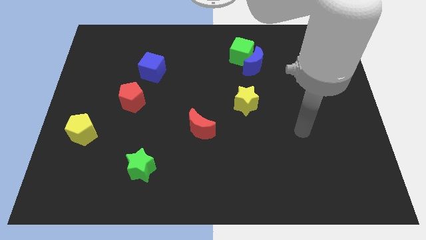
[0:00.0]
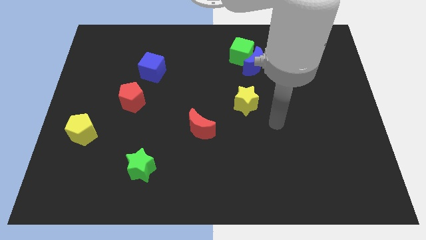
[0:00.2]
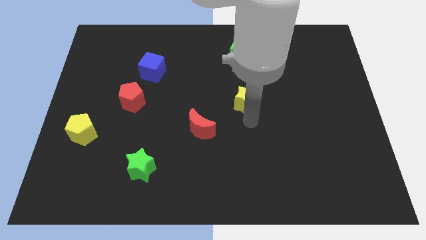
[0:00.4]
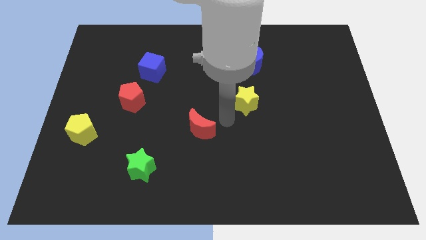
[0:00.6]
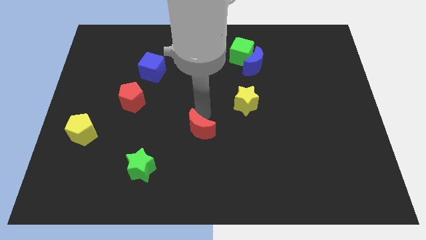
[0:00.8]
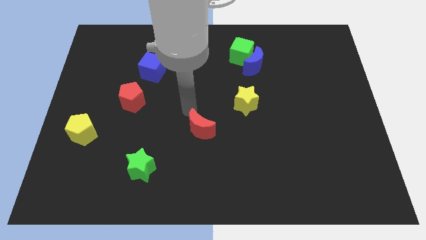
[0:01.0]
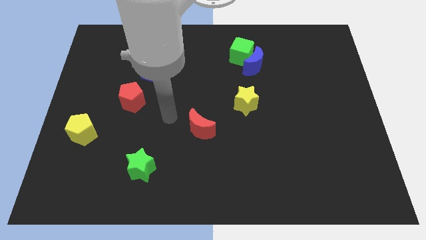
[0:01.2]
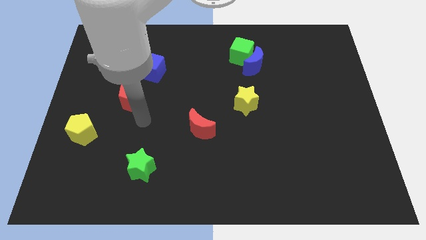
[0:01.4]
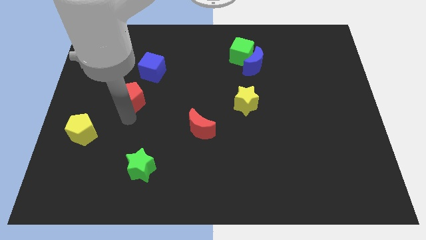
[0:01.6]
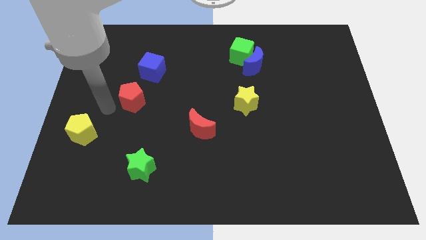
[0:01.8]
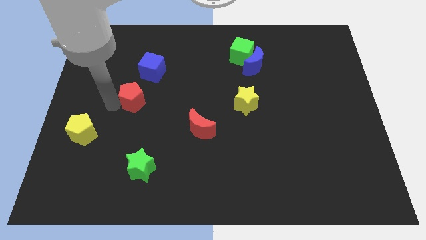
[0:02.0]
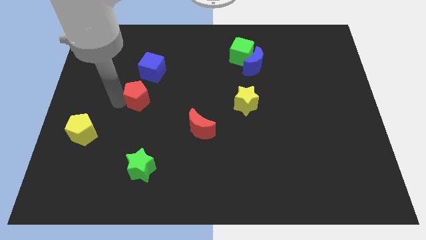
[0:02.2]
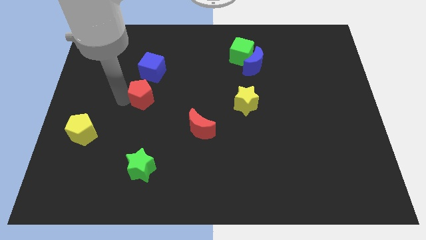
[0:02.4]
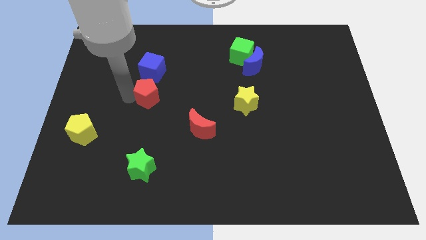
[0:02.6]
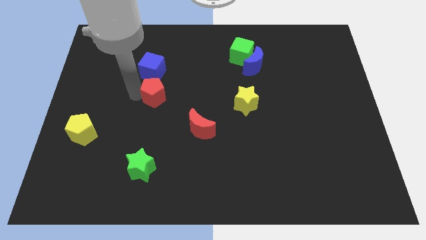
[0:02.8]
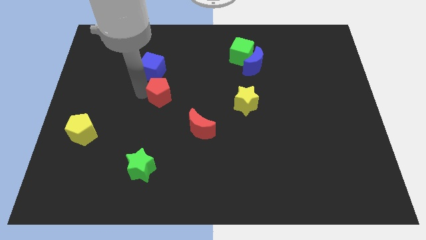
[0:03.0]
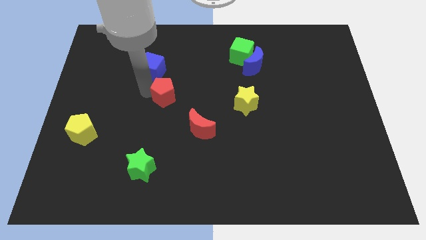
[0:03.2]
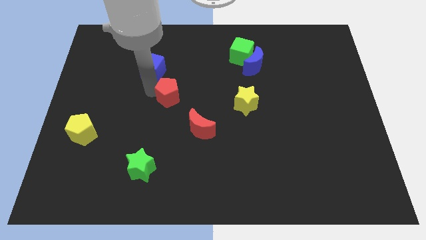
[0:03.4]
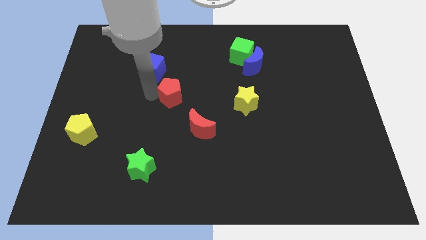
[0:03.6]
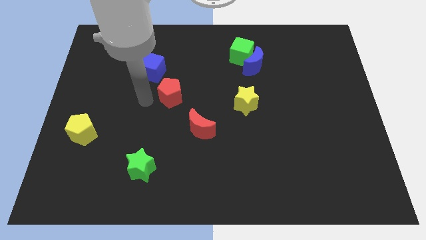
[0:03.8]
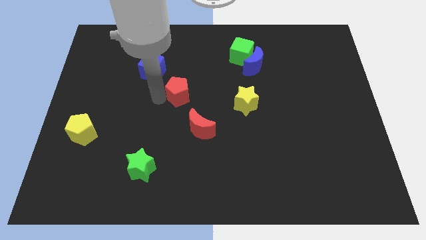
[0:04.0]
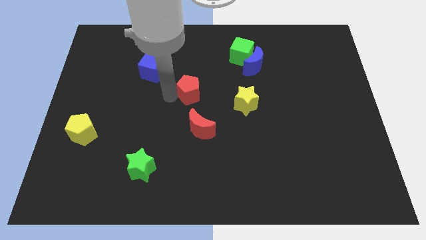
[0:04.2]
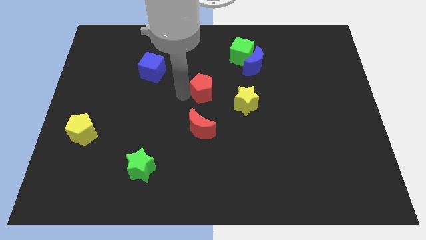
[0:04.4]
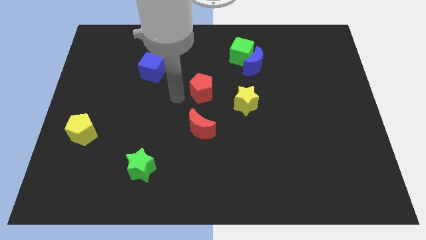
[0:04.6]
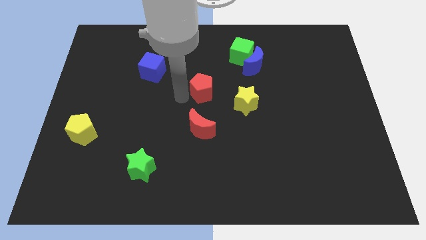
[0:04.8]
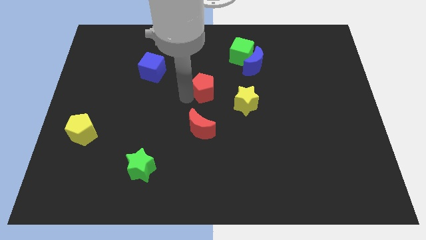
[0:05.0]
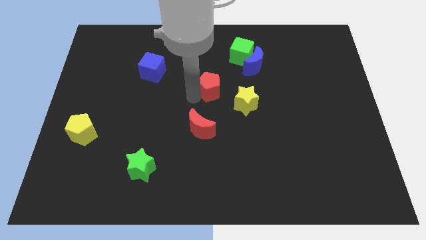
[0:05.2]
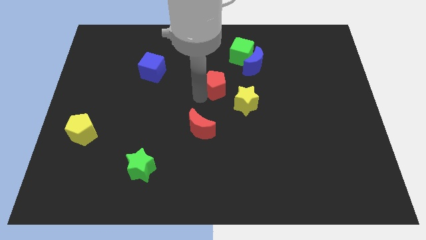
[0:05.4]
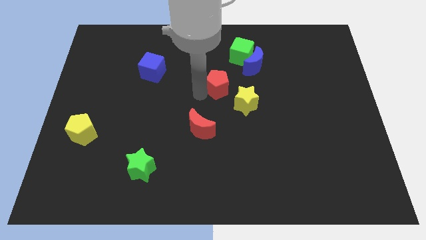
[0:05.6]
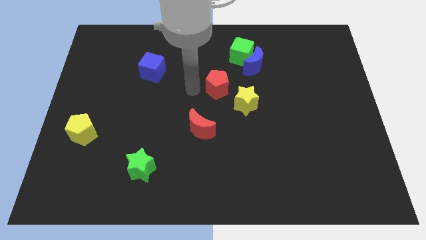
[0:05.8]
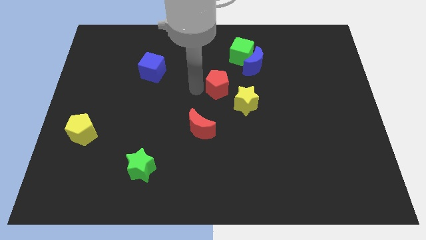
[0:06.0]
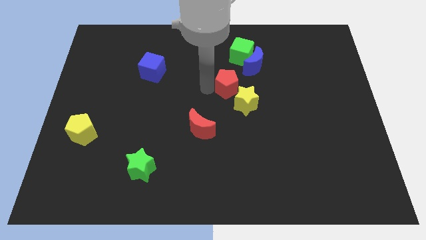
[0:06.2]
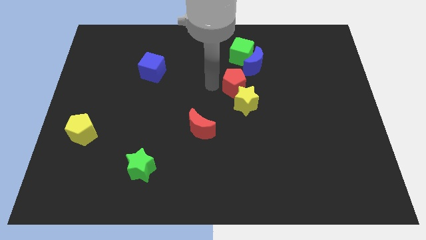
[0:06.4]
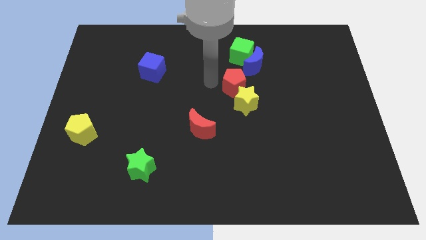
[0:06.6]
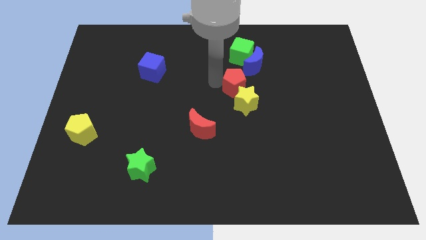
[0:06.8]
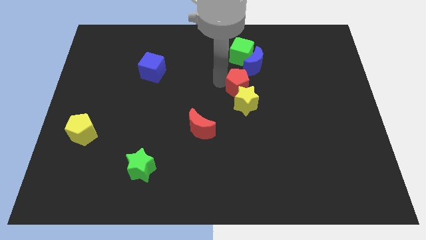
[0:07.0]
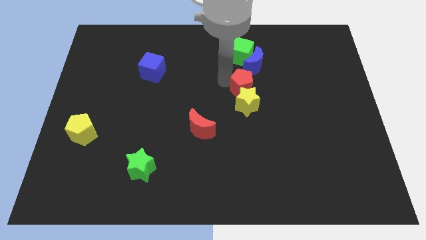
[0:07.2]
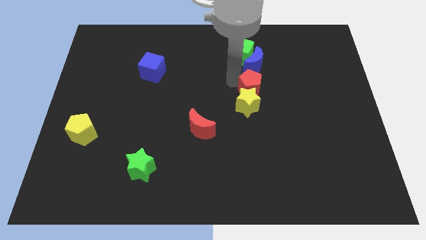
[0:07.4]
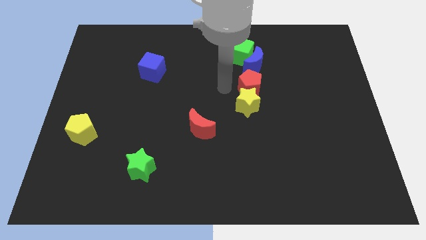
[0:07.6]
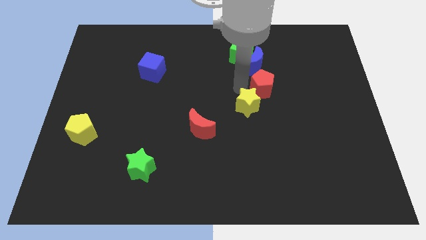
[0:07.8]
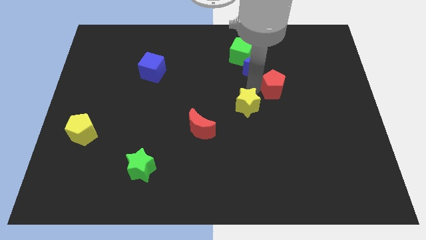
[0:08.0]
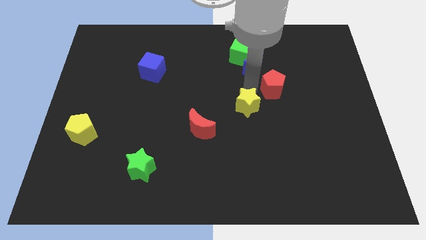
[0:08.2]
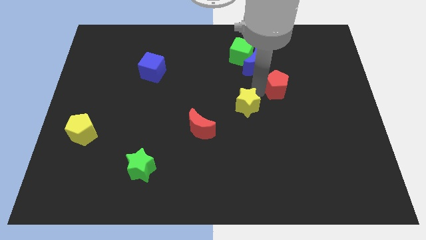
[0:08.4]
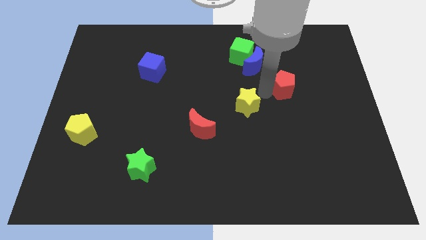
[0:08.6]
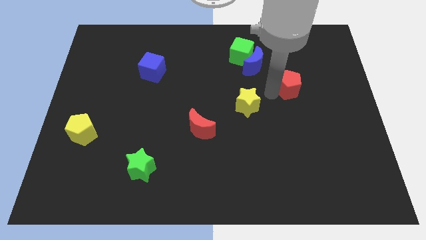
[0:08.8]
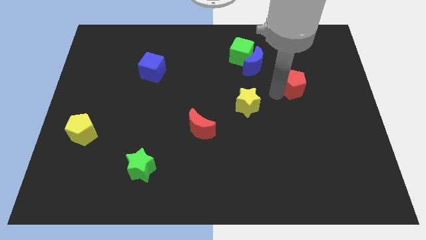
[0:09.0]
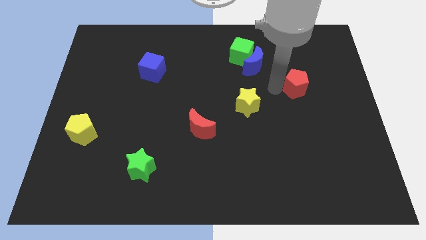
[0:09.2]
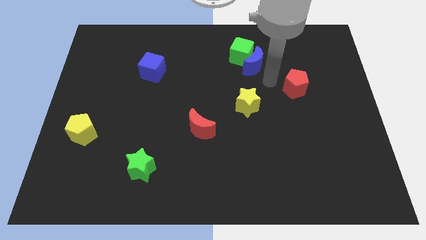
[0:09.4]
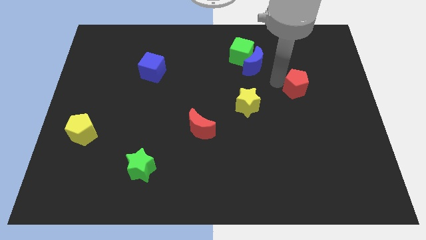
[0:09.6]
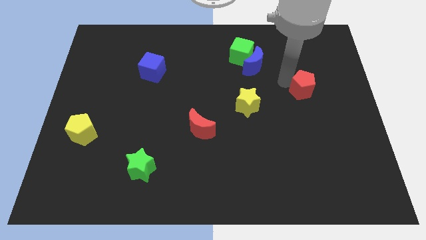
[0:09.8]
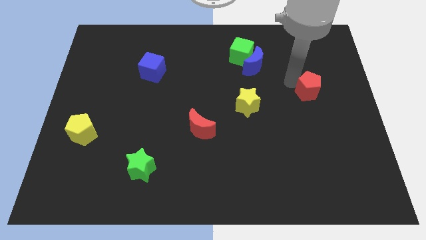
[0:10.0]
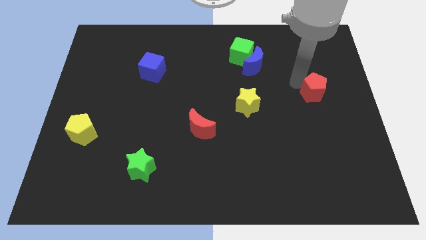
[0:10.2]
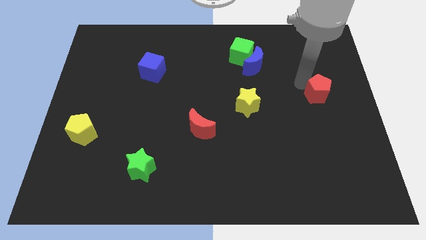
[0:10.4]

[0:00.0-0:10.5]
move the red pentagon to the center right

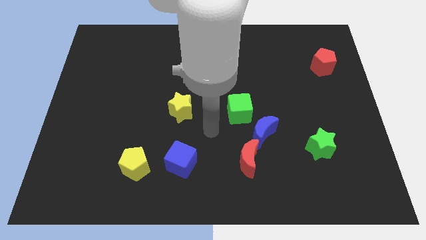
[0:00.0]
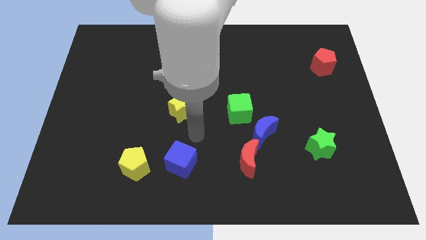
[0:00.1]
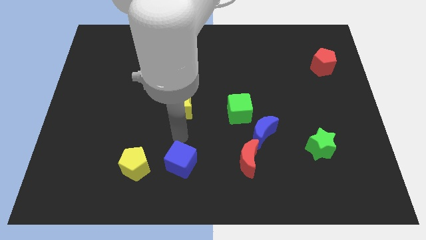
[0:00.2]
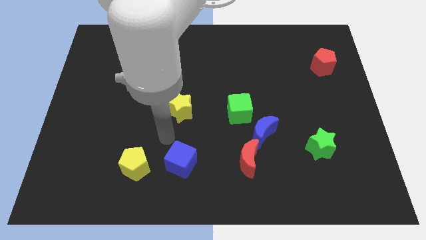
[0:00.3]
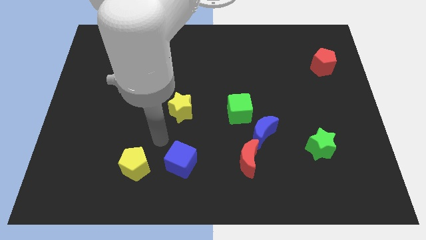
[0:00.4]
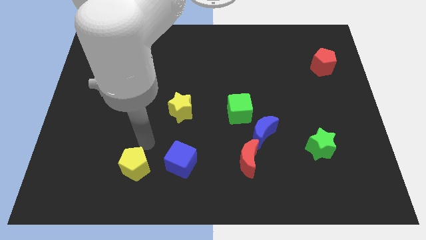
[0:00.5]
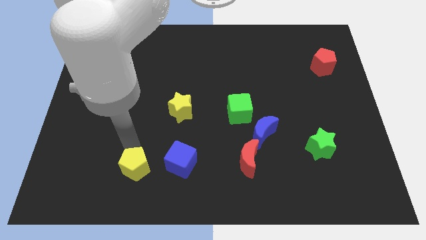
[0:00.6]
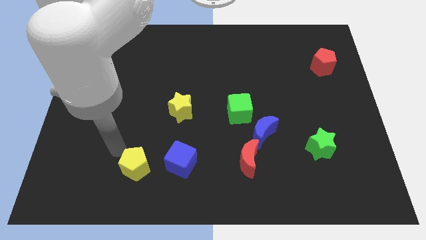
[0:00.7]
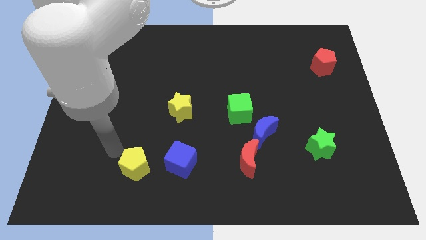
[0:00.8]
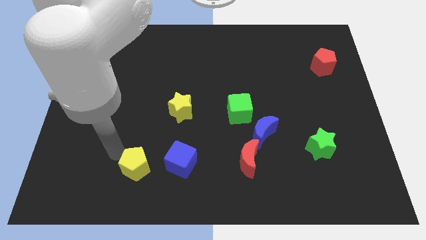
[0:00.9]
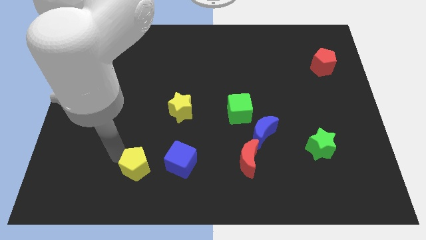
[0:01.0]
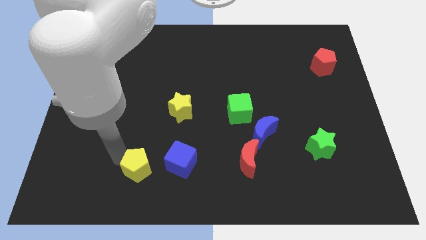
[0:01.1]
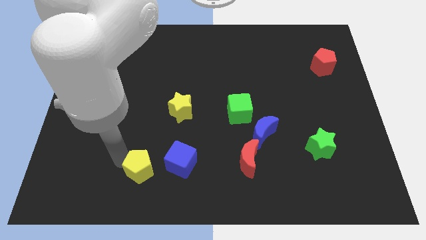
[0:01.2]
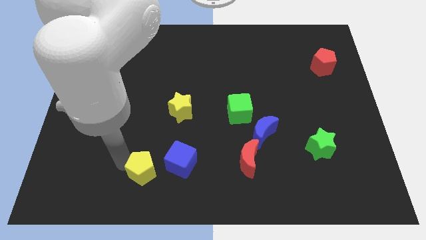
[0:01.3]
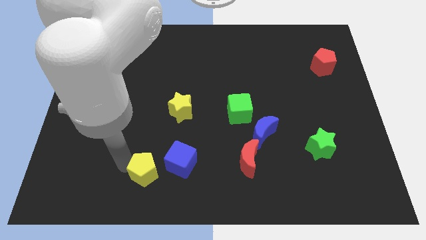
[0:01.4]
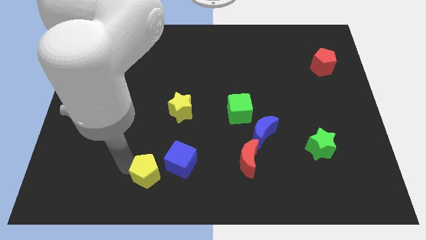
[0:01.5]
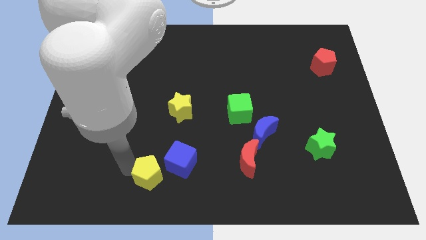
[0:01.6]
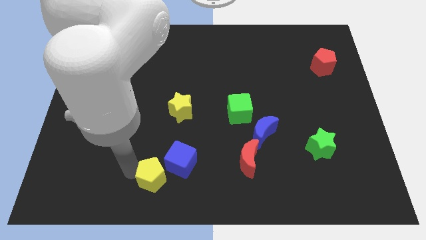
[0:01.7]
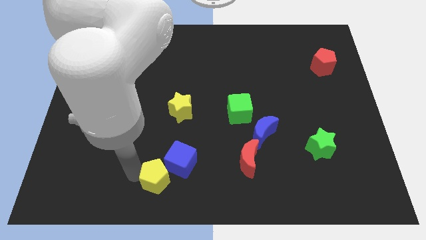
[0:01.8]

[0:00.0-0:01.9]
push the yellow pentagon to the bottom
